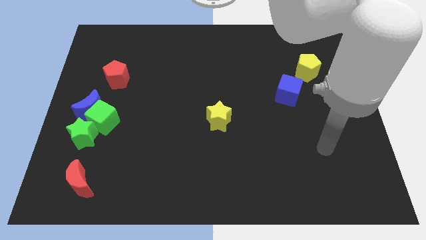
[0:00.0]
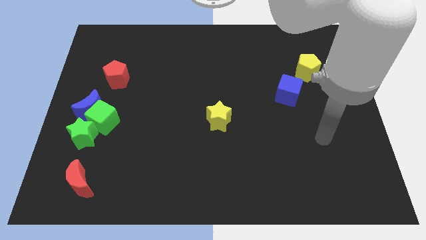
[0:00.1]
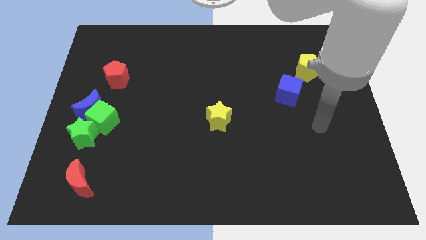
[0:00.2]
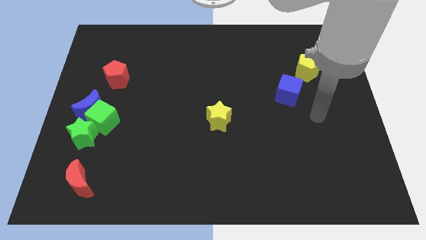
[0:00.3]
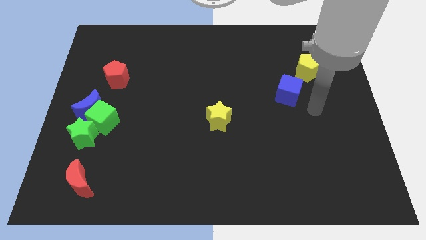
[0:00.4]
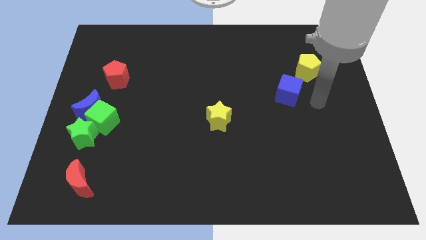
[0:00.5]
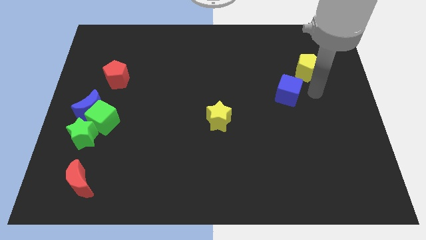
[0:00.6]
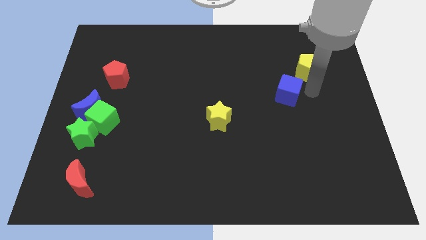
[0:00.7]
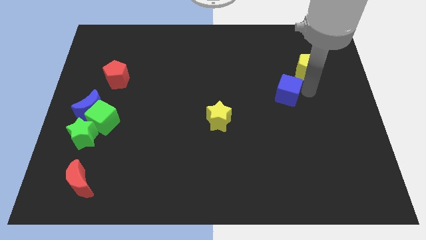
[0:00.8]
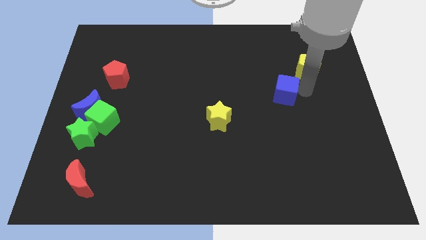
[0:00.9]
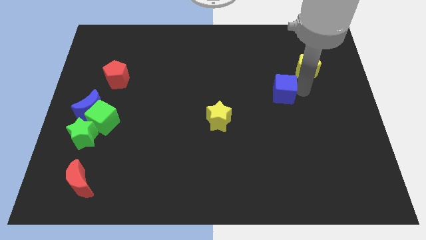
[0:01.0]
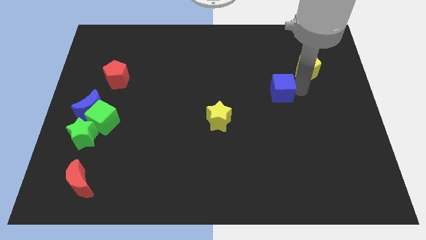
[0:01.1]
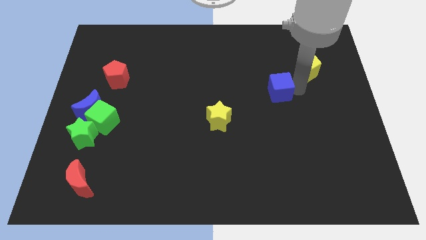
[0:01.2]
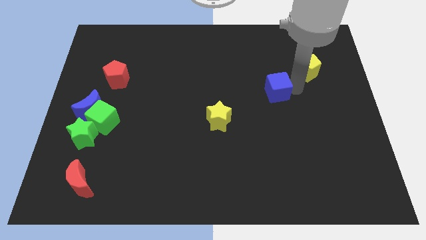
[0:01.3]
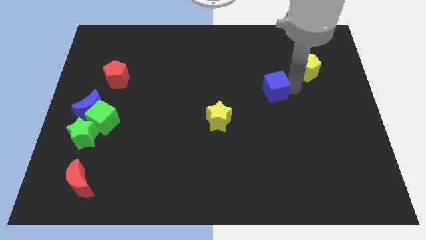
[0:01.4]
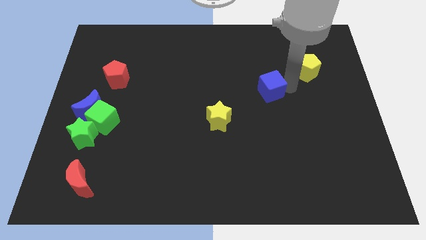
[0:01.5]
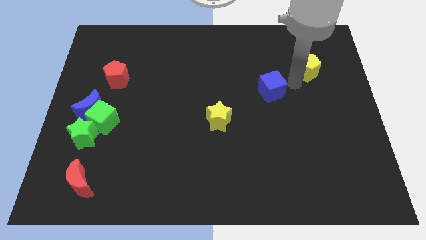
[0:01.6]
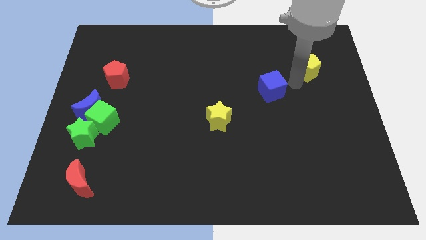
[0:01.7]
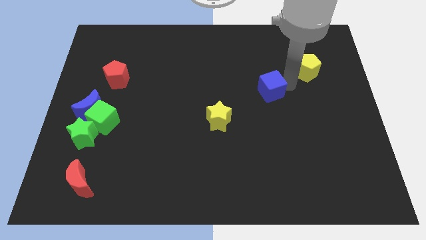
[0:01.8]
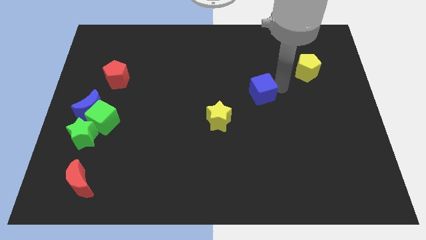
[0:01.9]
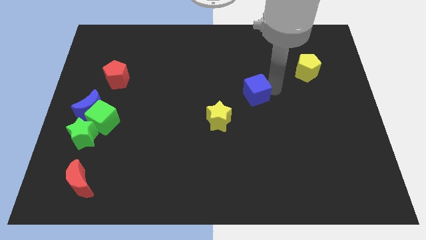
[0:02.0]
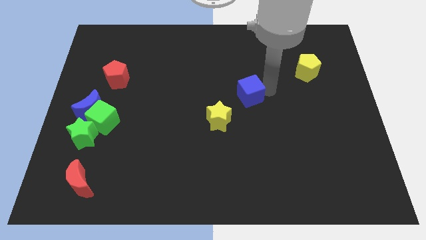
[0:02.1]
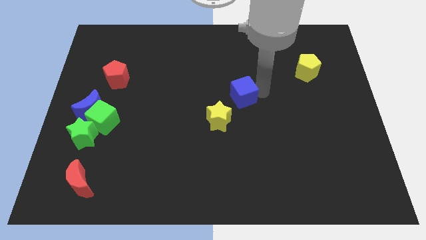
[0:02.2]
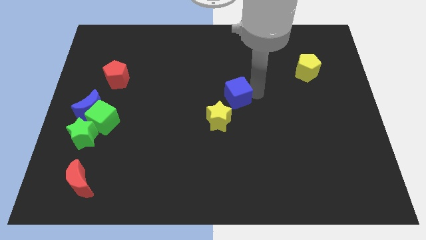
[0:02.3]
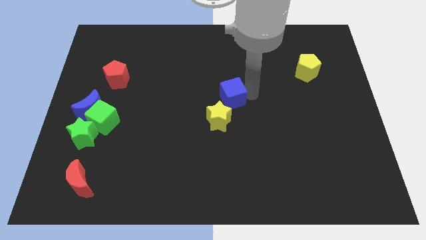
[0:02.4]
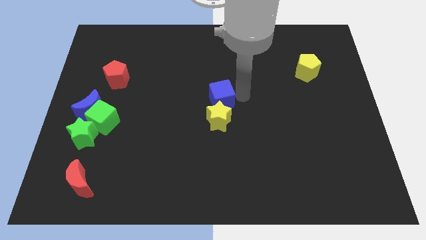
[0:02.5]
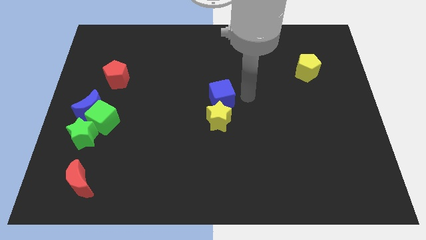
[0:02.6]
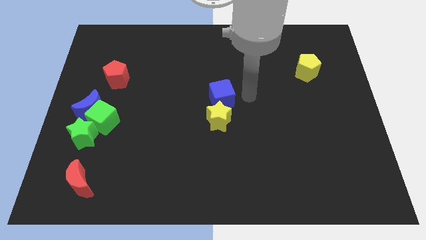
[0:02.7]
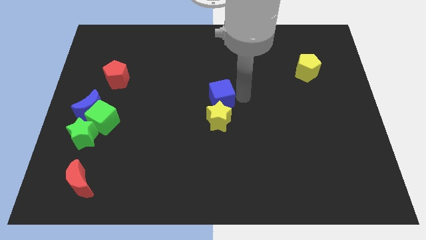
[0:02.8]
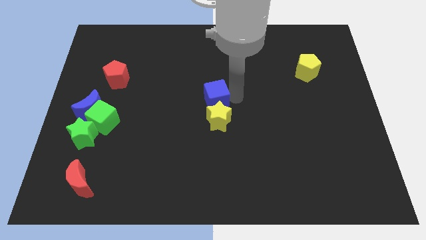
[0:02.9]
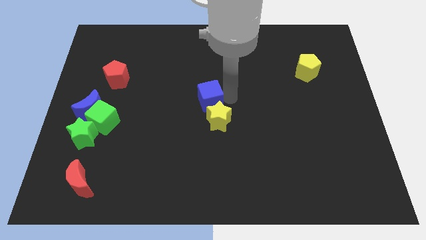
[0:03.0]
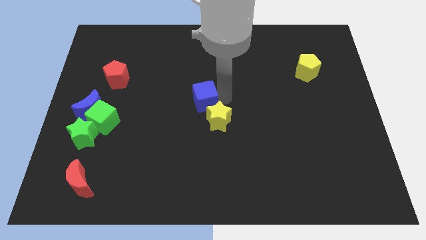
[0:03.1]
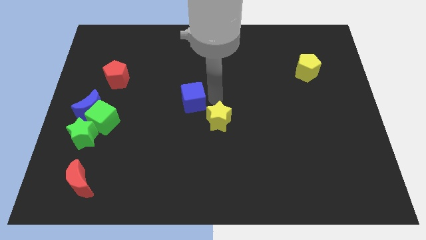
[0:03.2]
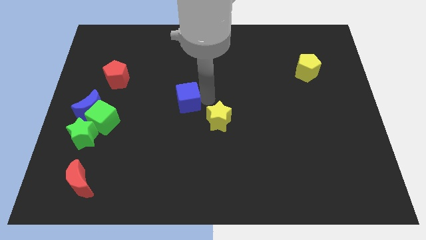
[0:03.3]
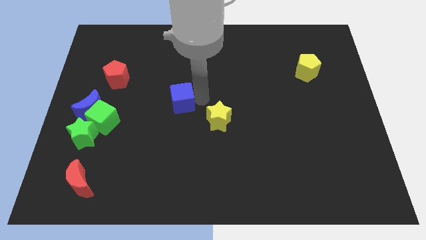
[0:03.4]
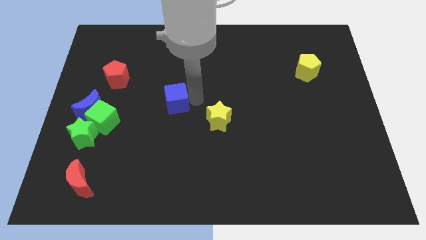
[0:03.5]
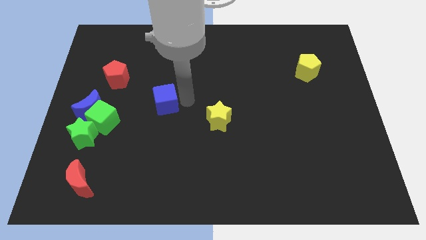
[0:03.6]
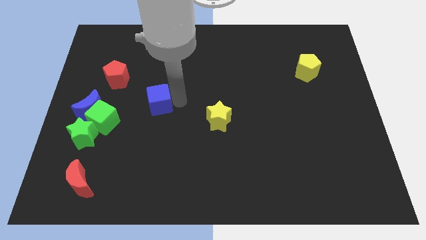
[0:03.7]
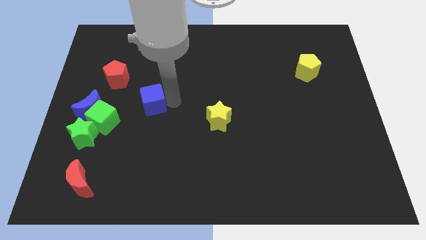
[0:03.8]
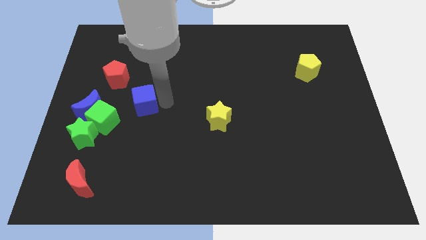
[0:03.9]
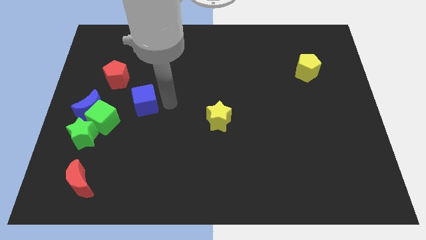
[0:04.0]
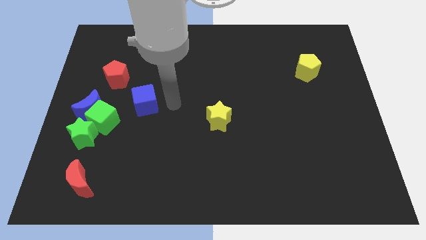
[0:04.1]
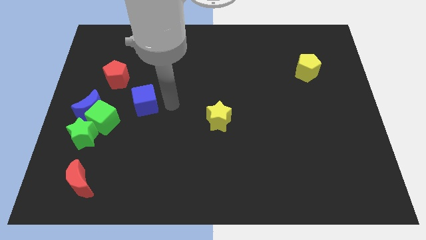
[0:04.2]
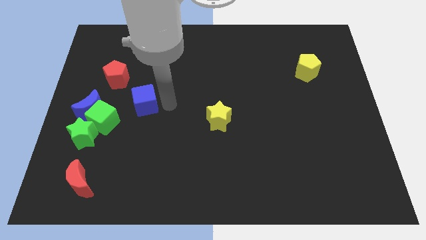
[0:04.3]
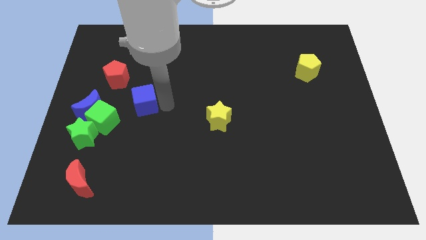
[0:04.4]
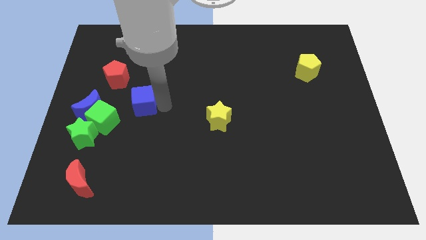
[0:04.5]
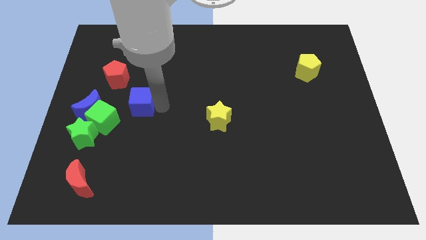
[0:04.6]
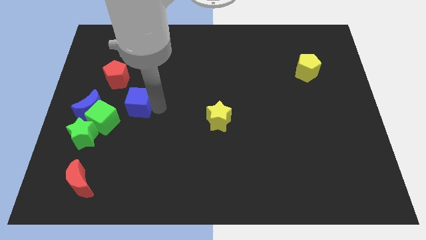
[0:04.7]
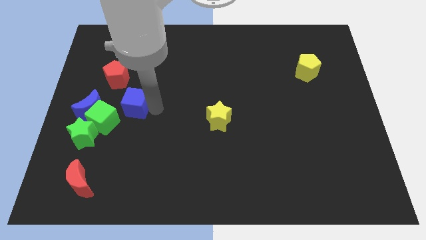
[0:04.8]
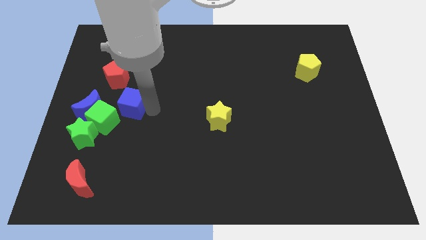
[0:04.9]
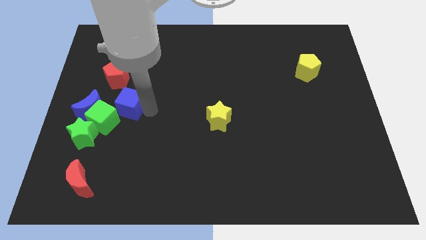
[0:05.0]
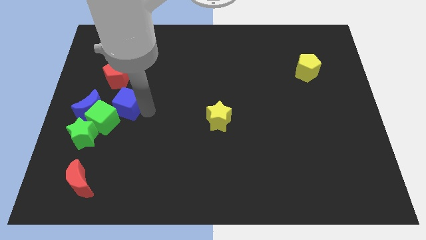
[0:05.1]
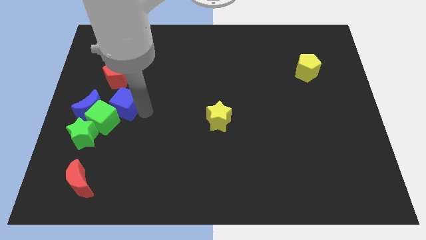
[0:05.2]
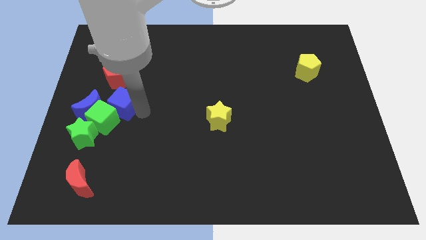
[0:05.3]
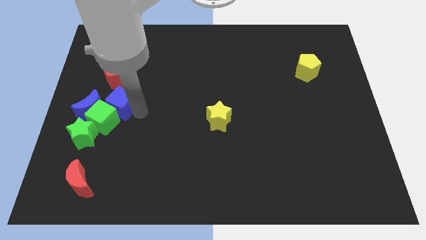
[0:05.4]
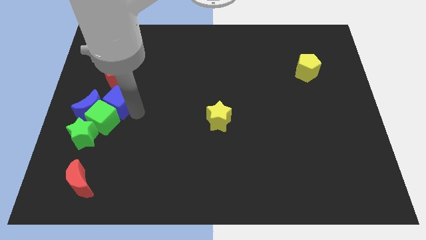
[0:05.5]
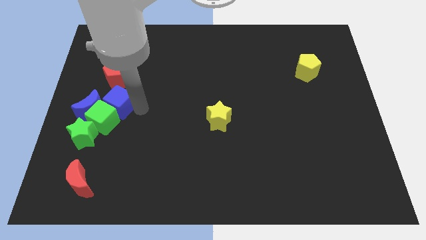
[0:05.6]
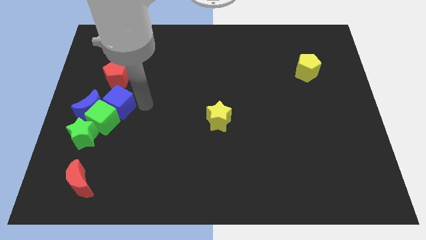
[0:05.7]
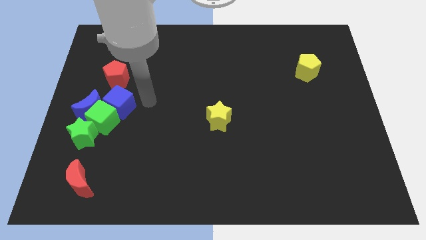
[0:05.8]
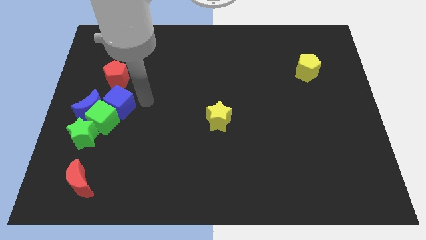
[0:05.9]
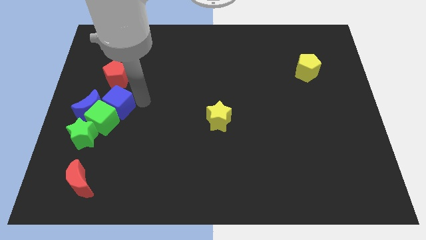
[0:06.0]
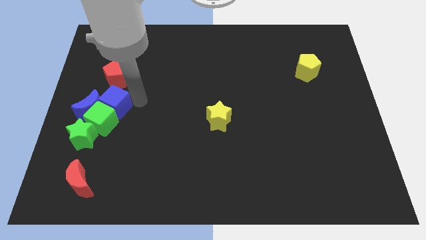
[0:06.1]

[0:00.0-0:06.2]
move the blue cube next to the blue moon
